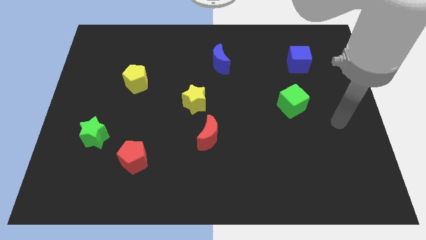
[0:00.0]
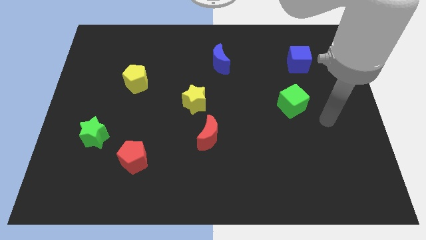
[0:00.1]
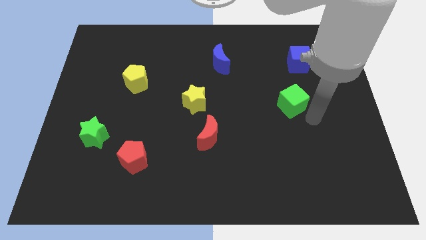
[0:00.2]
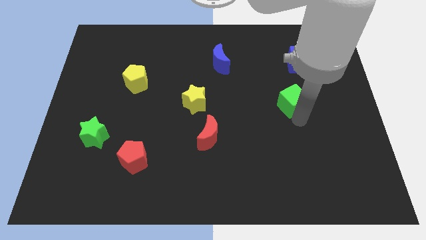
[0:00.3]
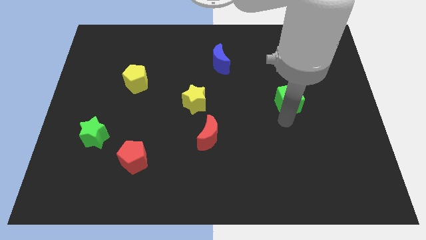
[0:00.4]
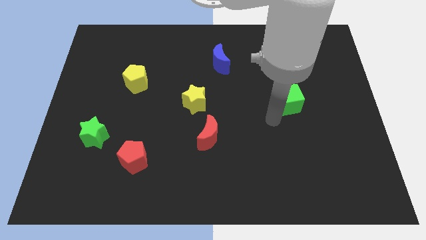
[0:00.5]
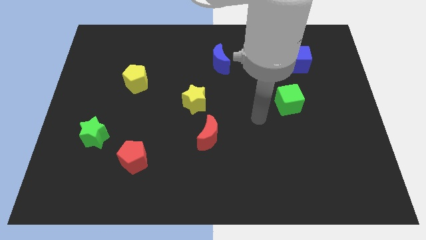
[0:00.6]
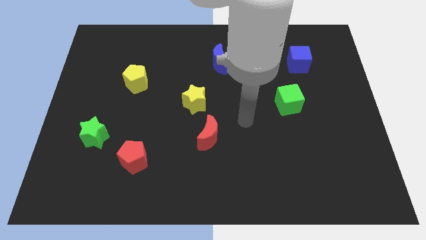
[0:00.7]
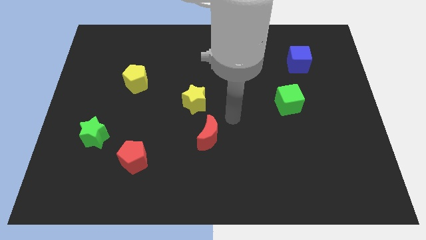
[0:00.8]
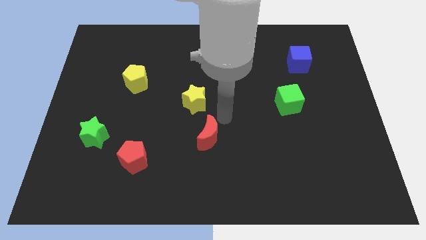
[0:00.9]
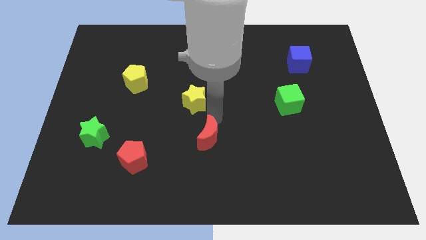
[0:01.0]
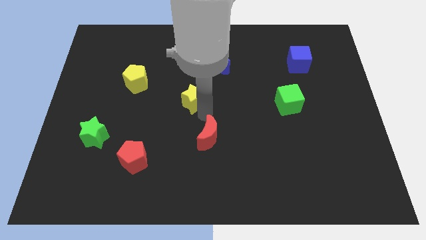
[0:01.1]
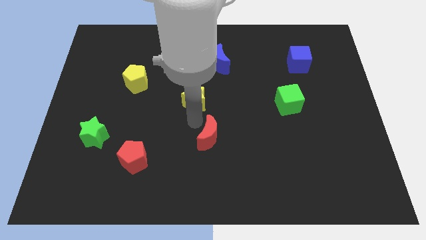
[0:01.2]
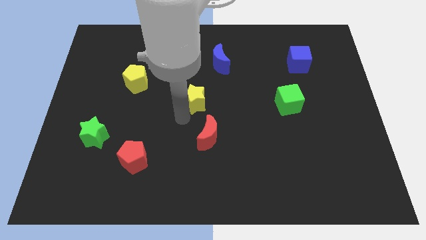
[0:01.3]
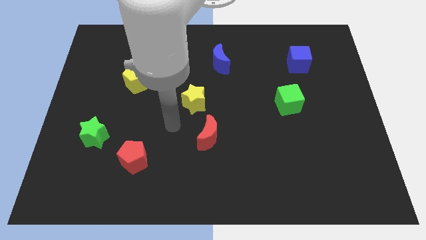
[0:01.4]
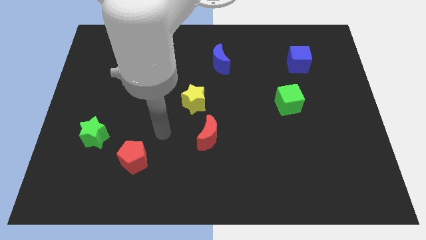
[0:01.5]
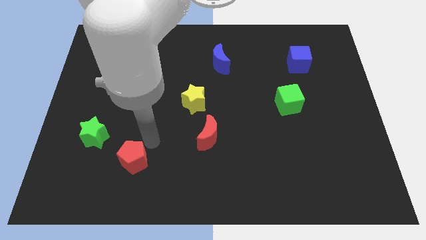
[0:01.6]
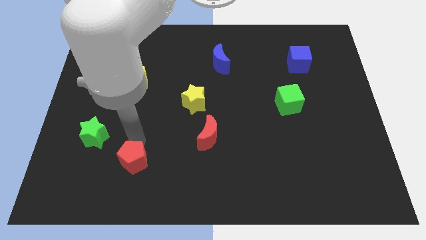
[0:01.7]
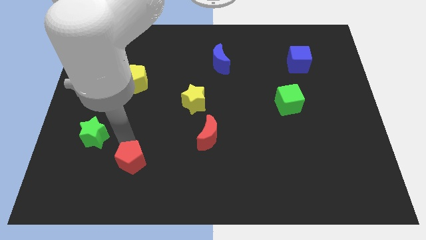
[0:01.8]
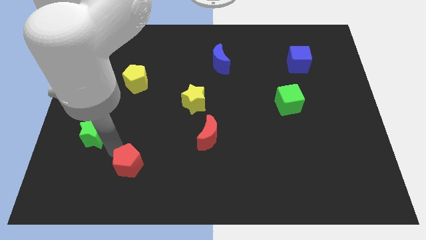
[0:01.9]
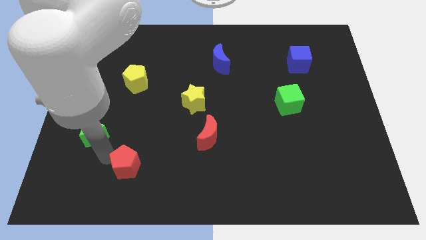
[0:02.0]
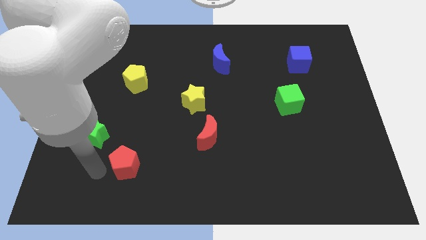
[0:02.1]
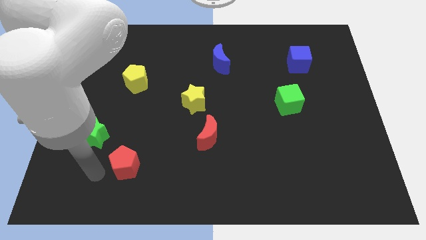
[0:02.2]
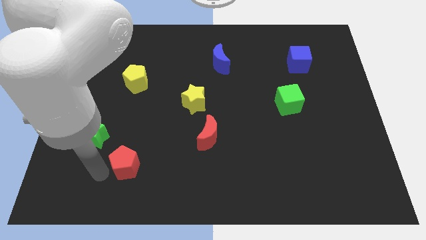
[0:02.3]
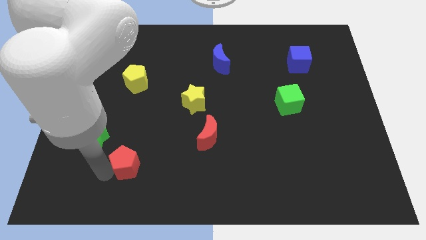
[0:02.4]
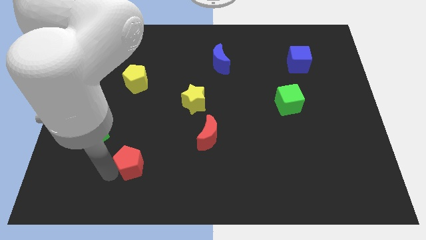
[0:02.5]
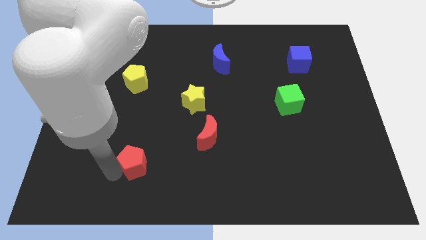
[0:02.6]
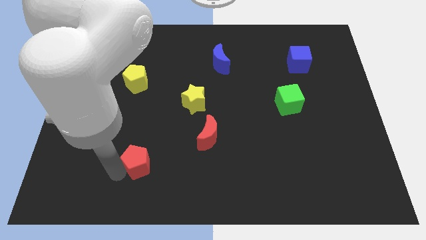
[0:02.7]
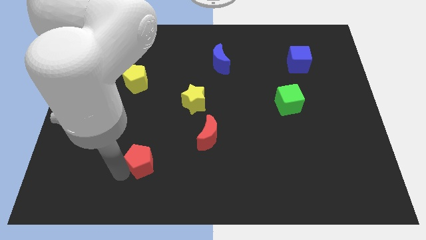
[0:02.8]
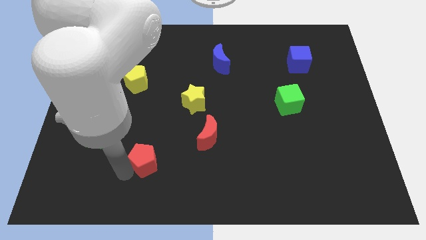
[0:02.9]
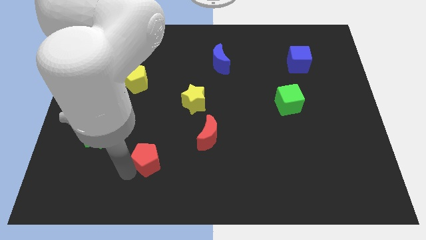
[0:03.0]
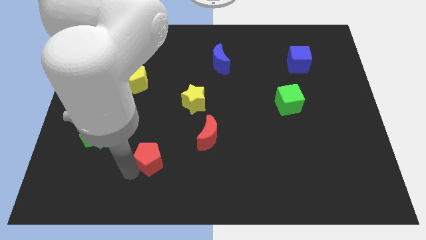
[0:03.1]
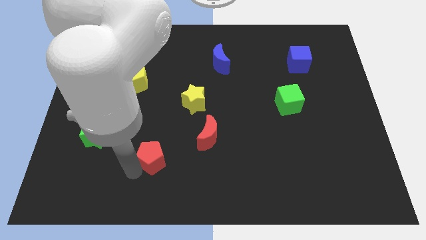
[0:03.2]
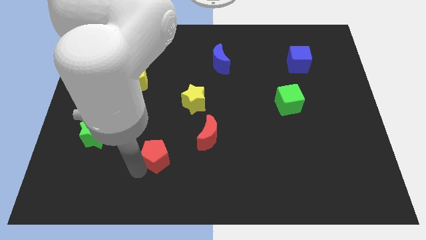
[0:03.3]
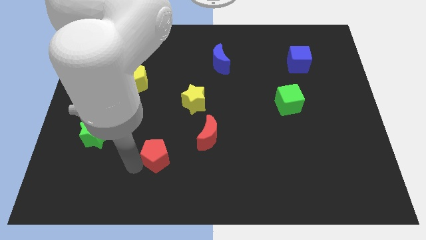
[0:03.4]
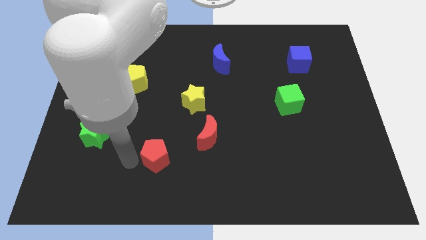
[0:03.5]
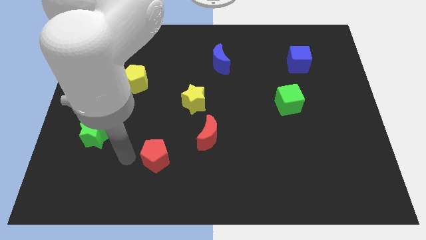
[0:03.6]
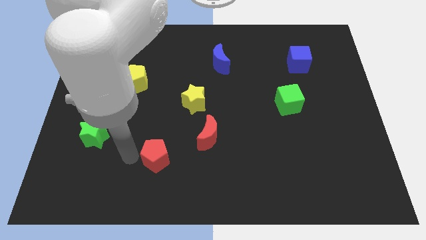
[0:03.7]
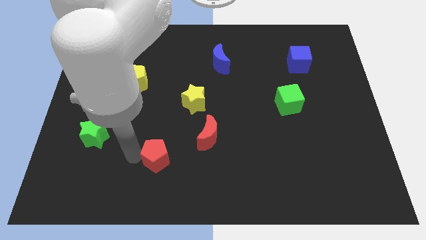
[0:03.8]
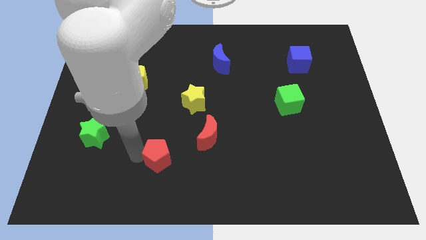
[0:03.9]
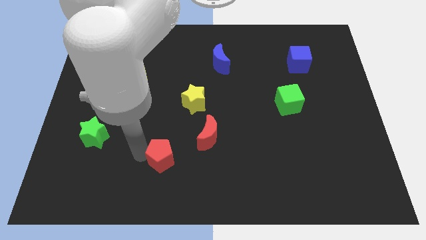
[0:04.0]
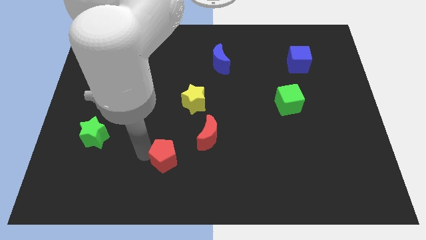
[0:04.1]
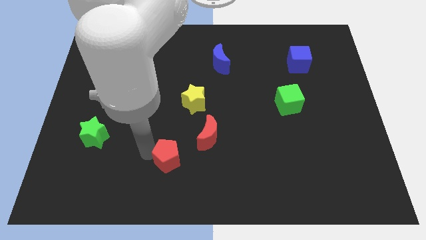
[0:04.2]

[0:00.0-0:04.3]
move the red pentagon right a little

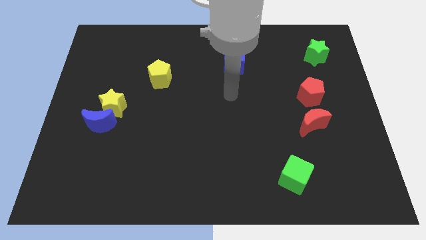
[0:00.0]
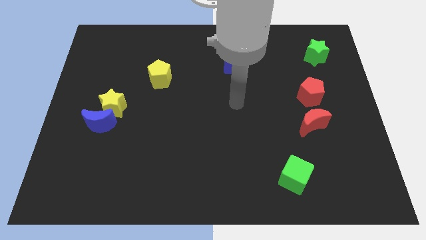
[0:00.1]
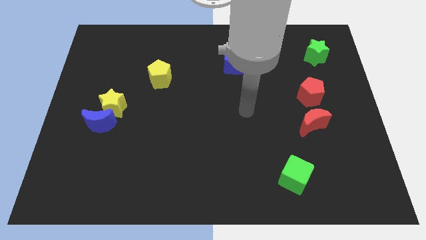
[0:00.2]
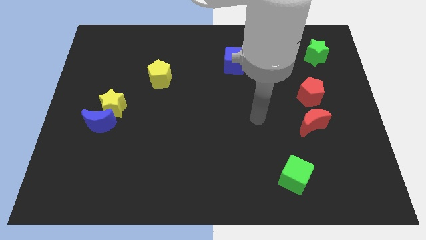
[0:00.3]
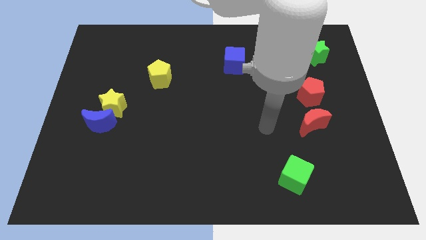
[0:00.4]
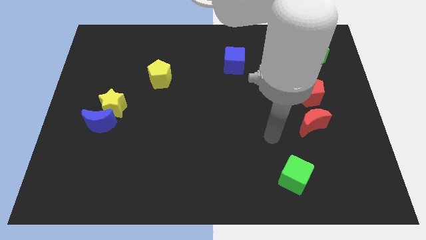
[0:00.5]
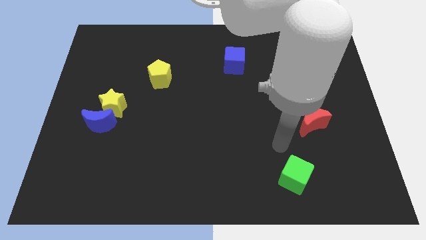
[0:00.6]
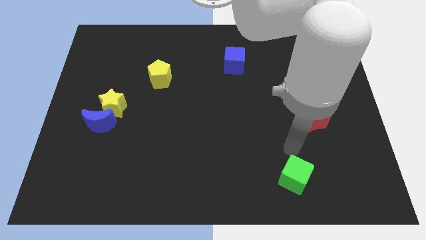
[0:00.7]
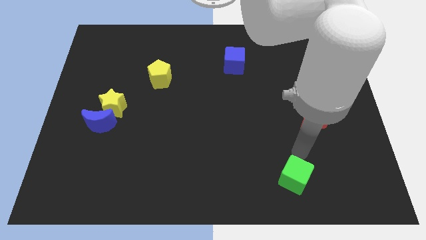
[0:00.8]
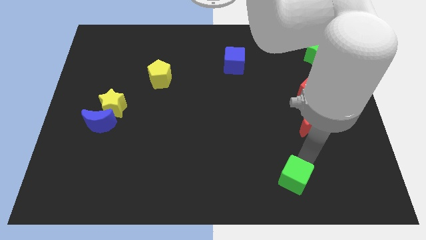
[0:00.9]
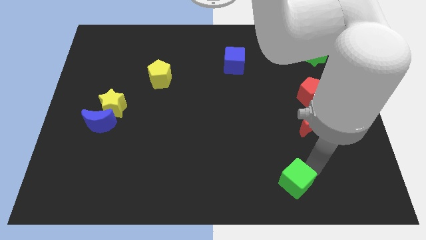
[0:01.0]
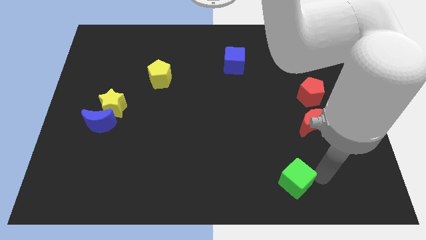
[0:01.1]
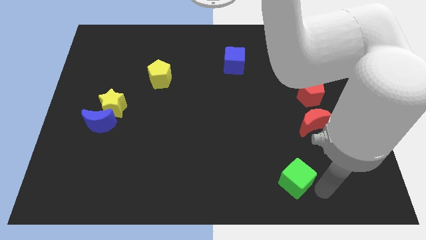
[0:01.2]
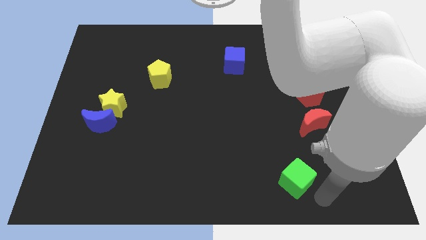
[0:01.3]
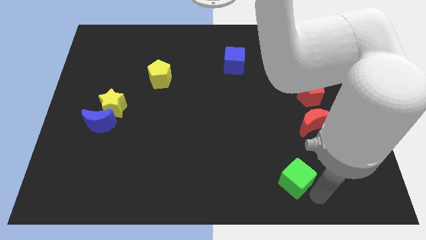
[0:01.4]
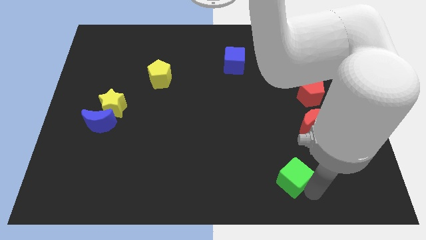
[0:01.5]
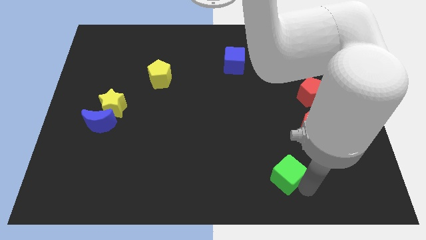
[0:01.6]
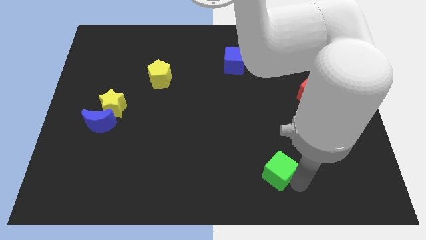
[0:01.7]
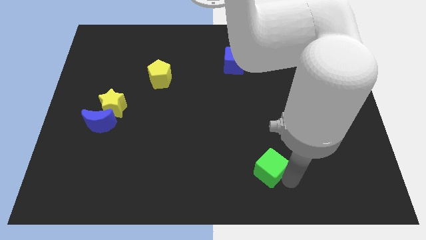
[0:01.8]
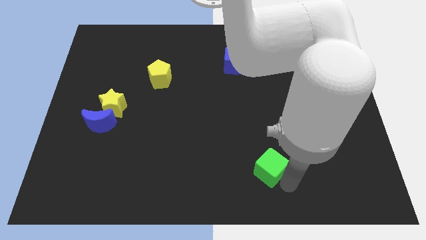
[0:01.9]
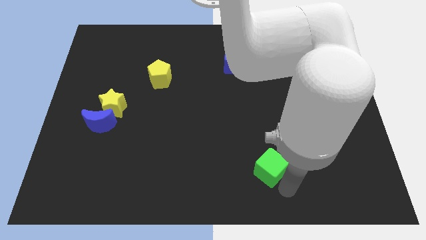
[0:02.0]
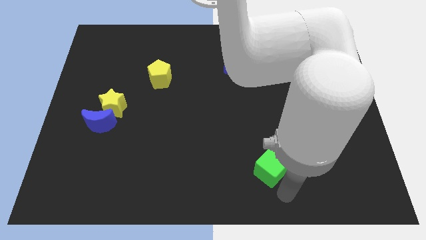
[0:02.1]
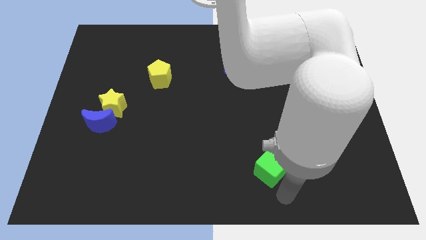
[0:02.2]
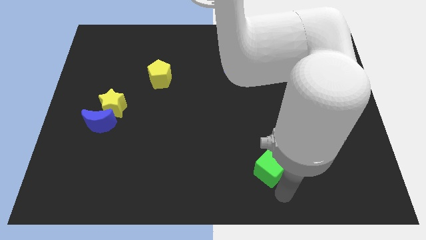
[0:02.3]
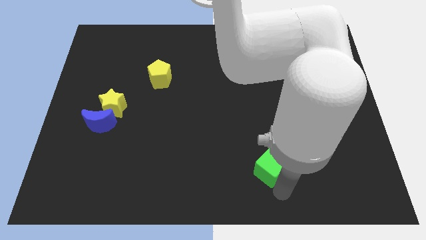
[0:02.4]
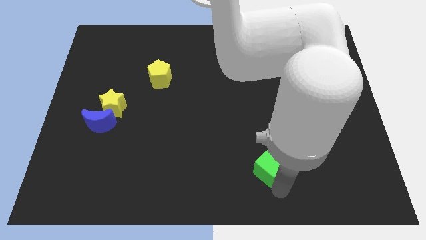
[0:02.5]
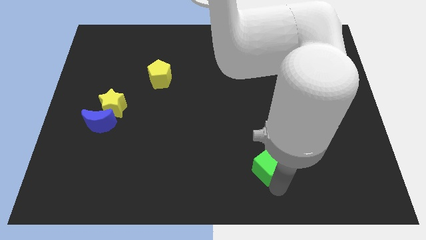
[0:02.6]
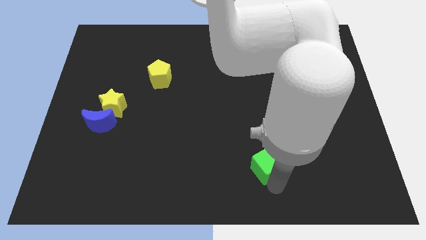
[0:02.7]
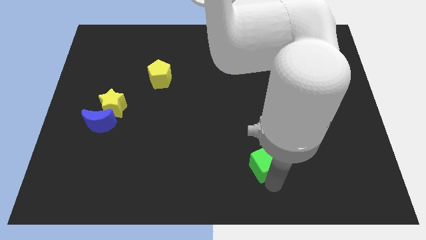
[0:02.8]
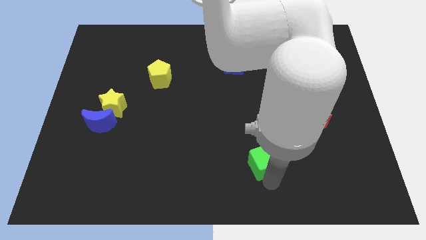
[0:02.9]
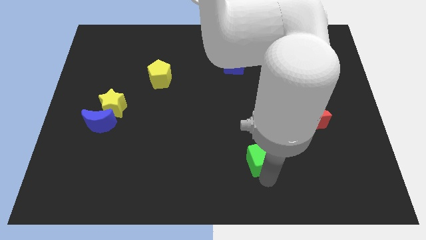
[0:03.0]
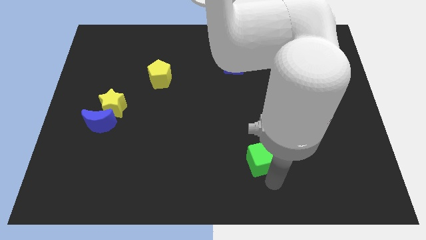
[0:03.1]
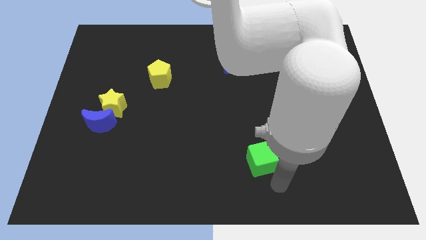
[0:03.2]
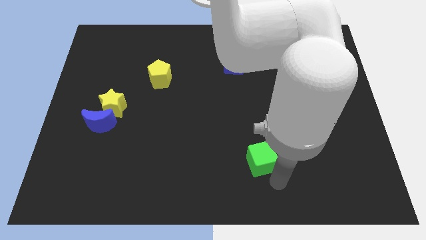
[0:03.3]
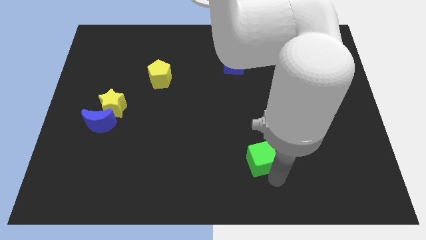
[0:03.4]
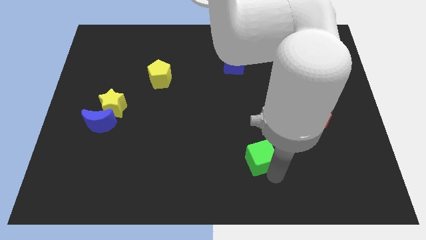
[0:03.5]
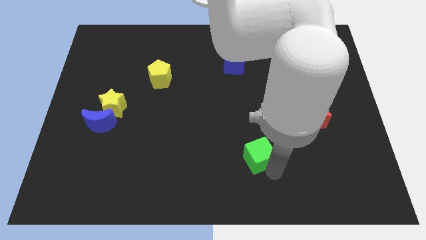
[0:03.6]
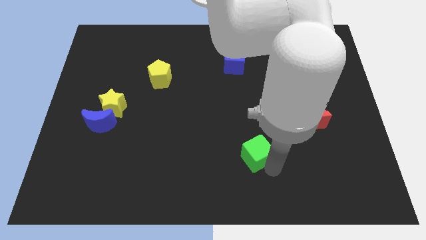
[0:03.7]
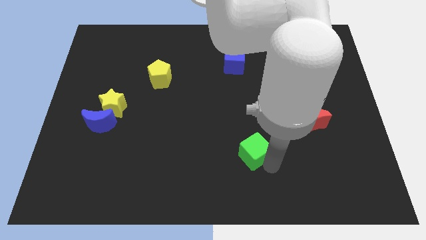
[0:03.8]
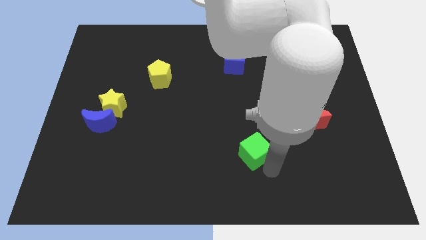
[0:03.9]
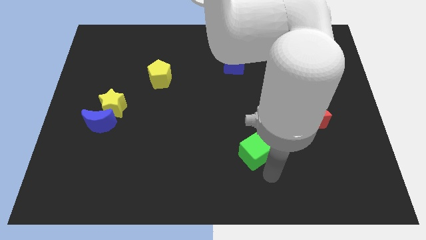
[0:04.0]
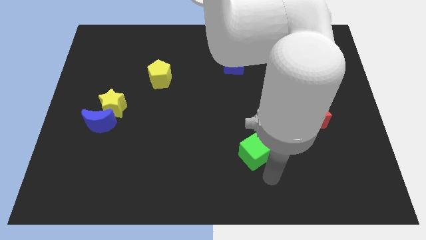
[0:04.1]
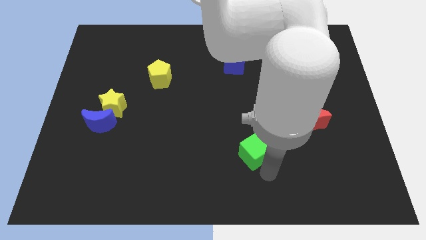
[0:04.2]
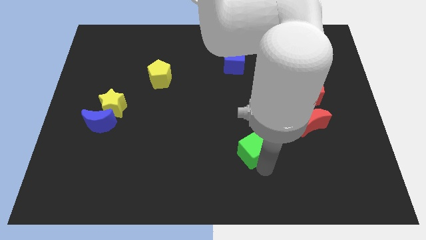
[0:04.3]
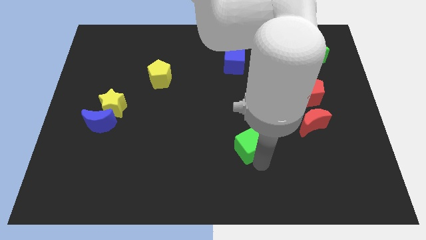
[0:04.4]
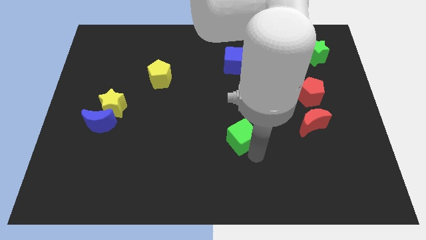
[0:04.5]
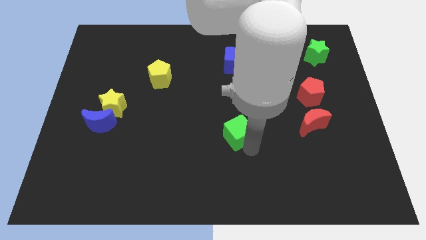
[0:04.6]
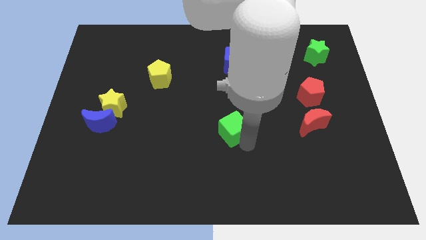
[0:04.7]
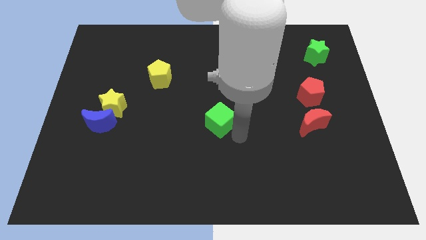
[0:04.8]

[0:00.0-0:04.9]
push the green cube up and then to the left
